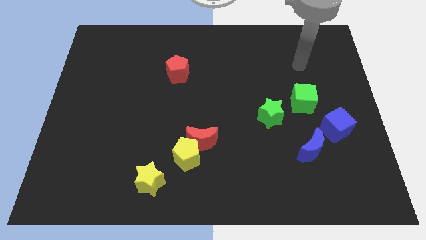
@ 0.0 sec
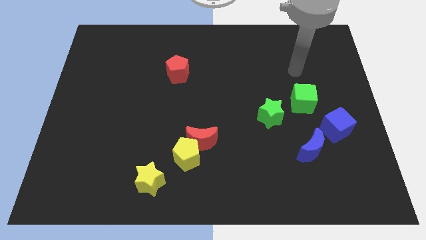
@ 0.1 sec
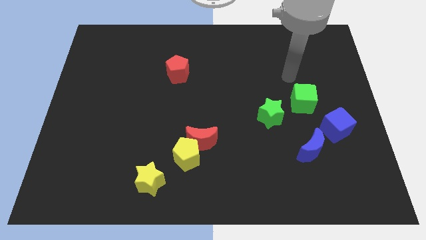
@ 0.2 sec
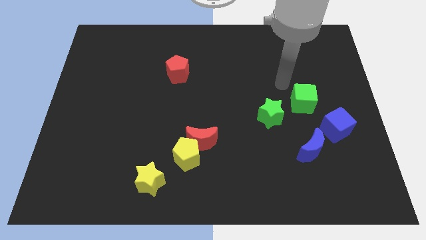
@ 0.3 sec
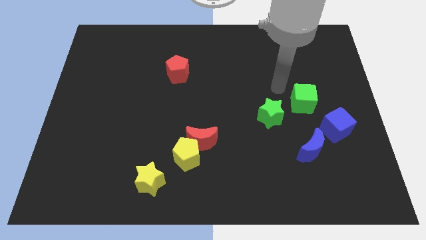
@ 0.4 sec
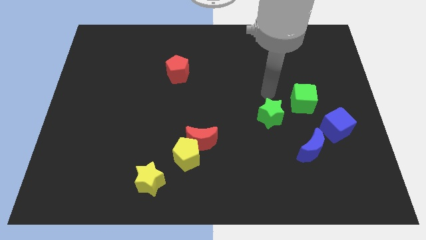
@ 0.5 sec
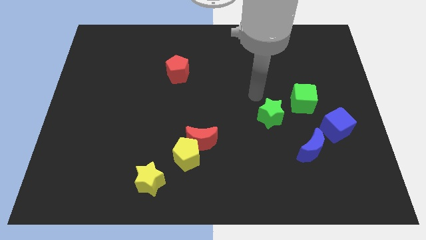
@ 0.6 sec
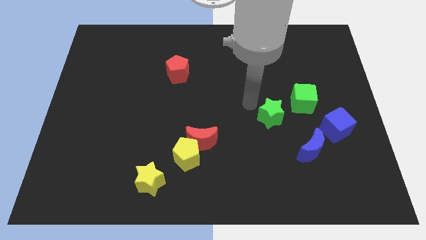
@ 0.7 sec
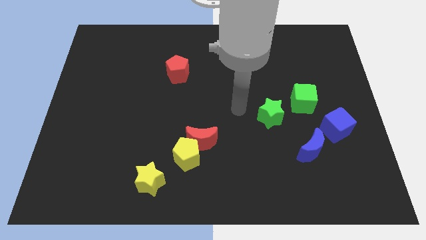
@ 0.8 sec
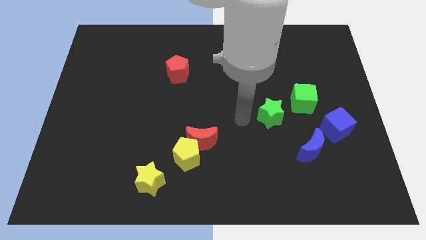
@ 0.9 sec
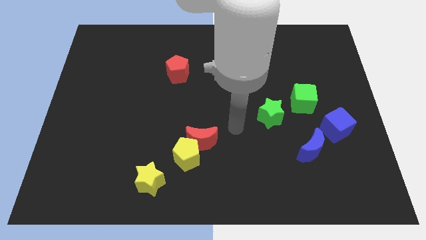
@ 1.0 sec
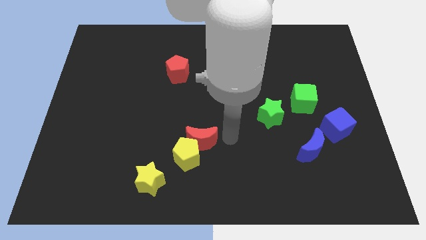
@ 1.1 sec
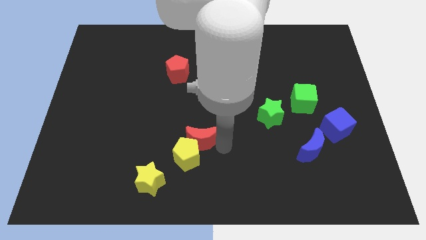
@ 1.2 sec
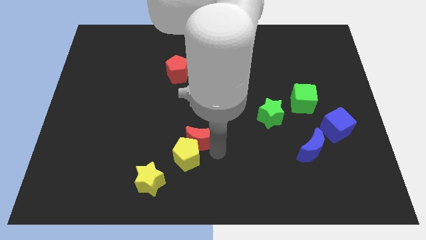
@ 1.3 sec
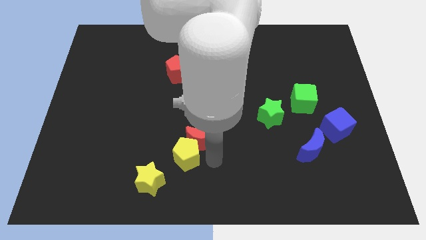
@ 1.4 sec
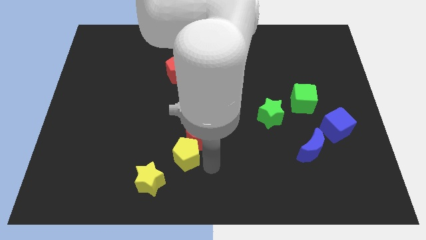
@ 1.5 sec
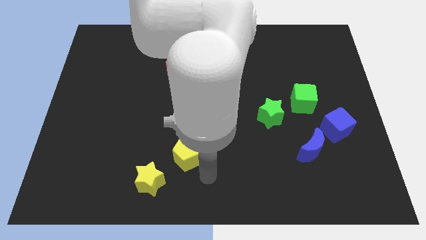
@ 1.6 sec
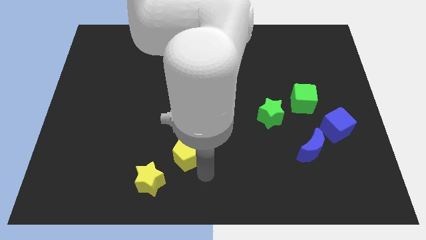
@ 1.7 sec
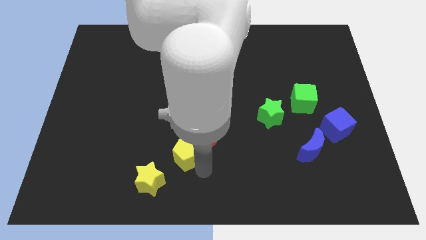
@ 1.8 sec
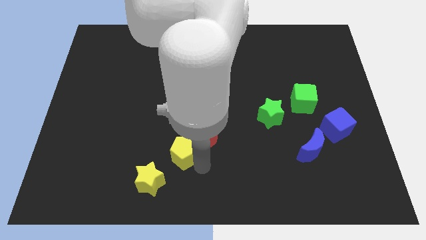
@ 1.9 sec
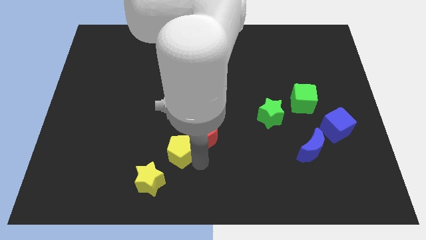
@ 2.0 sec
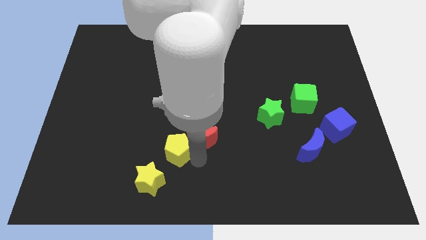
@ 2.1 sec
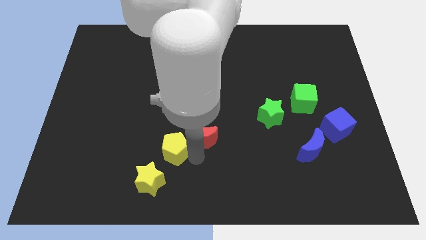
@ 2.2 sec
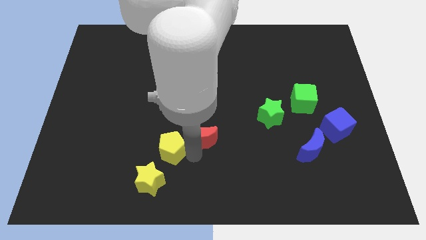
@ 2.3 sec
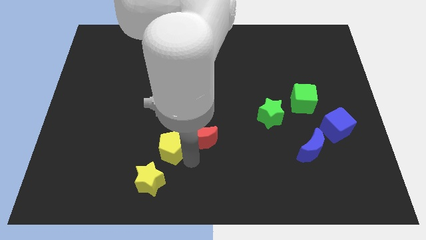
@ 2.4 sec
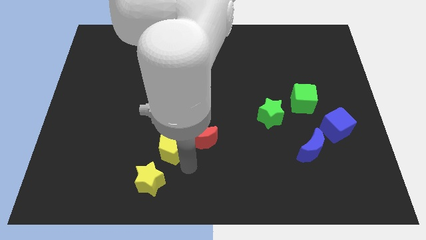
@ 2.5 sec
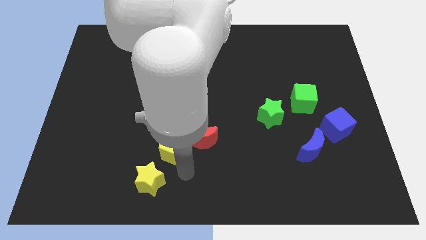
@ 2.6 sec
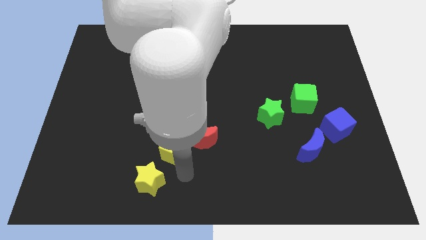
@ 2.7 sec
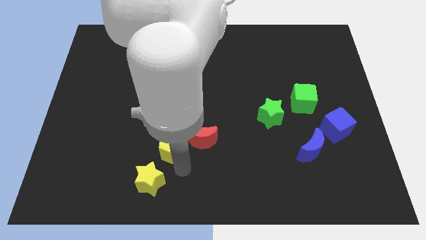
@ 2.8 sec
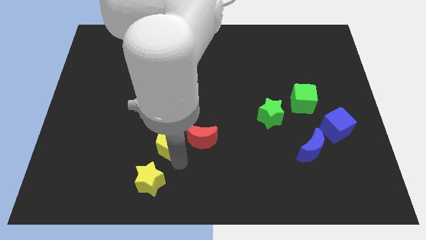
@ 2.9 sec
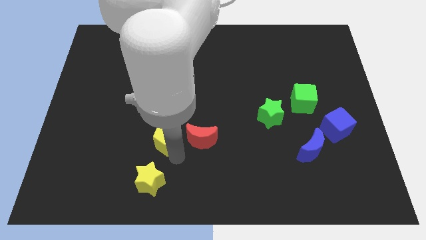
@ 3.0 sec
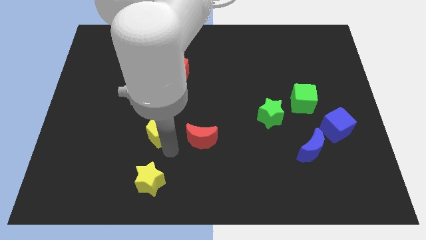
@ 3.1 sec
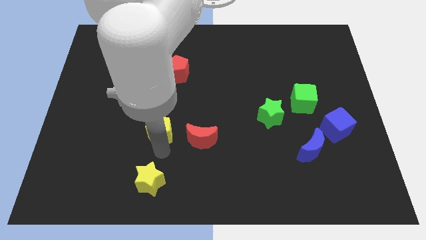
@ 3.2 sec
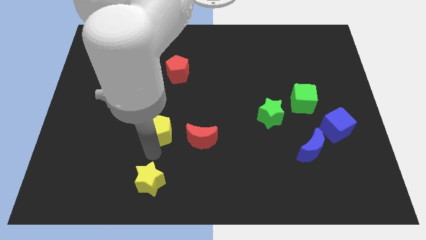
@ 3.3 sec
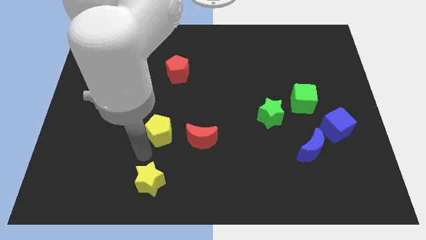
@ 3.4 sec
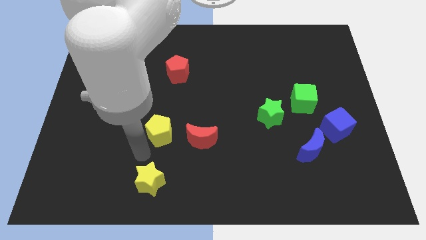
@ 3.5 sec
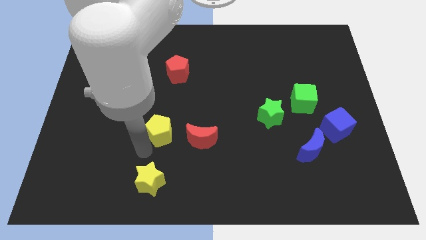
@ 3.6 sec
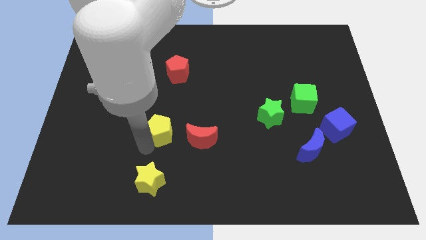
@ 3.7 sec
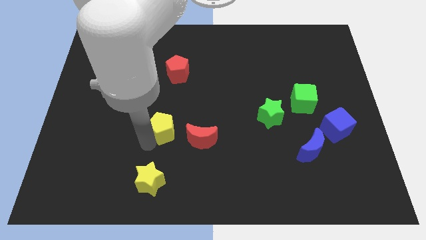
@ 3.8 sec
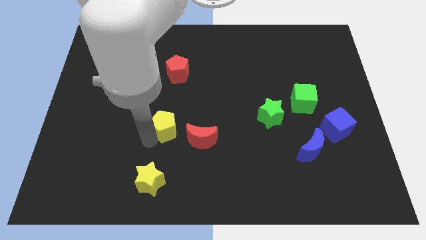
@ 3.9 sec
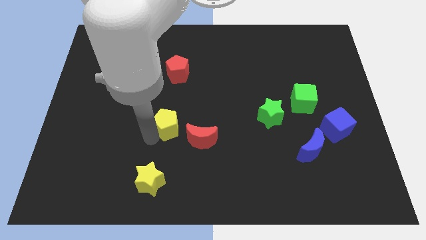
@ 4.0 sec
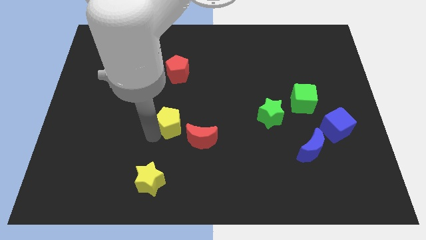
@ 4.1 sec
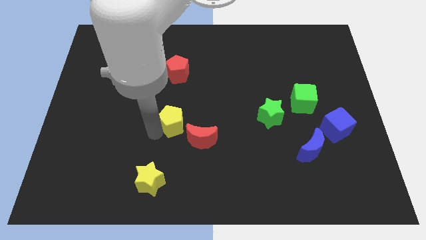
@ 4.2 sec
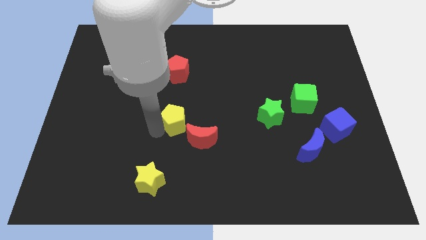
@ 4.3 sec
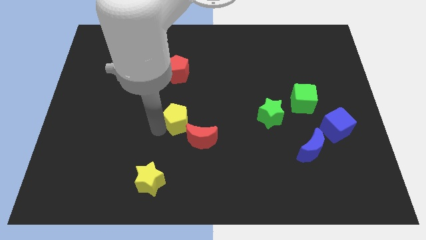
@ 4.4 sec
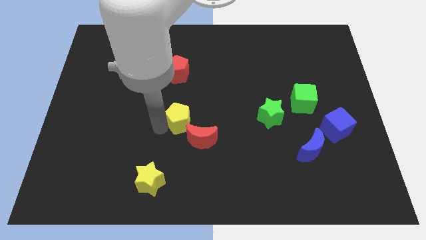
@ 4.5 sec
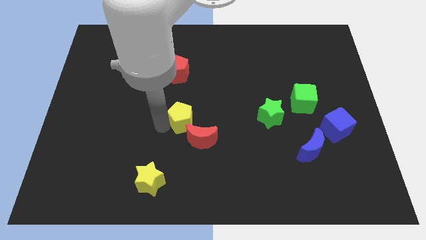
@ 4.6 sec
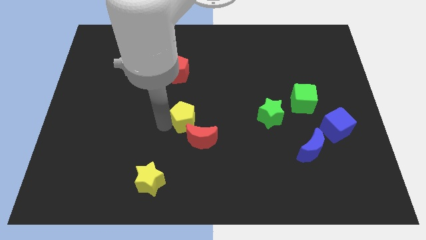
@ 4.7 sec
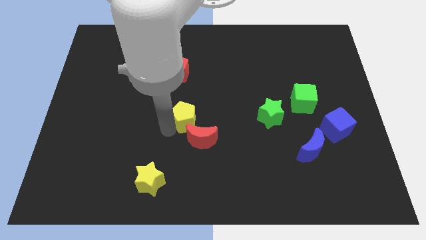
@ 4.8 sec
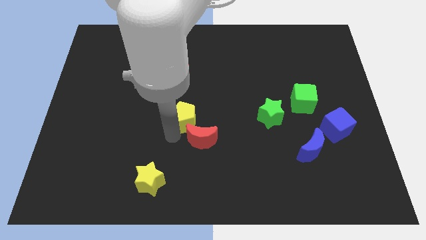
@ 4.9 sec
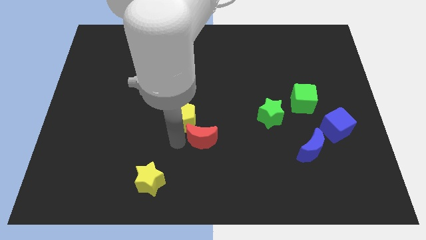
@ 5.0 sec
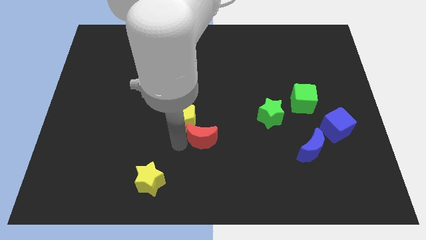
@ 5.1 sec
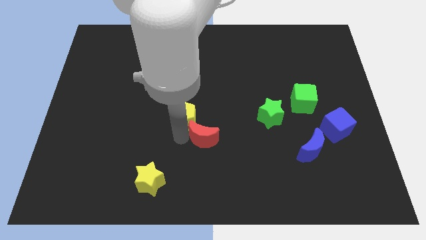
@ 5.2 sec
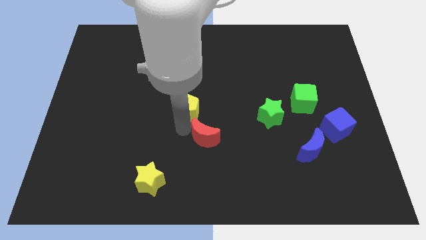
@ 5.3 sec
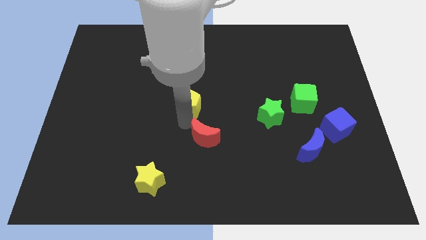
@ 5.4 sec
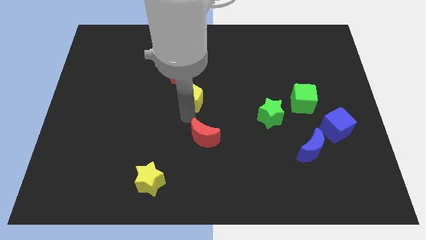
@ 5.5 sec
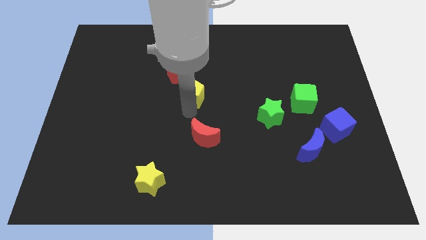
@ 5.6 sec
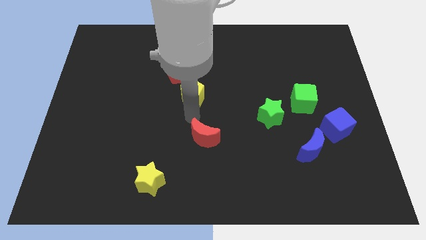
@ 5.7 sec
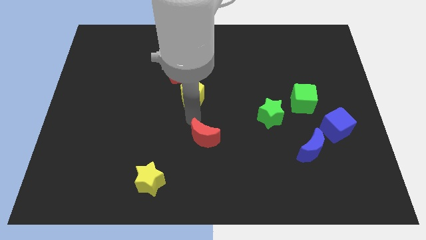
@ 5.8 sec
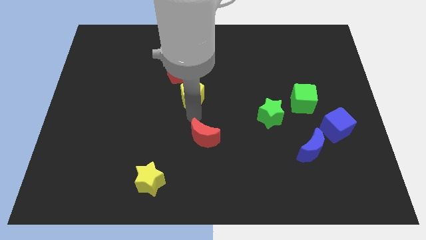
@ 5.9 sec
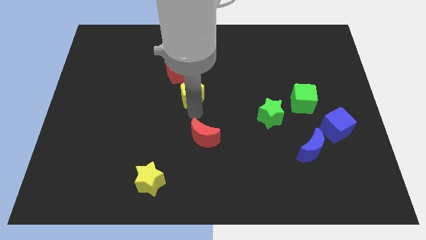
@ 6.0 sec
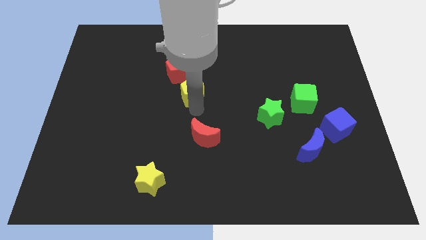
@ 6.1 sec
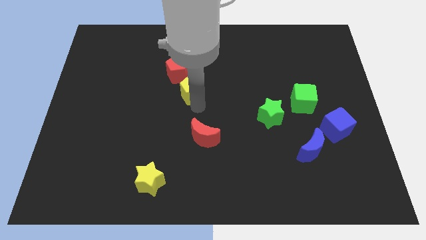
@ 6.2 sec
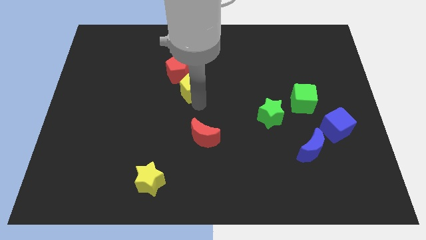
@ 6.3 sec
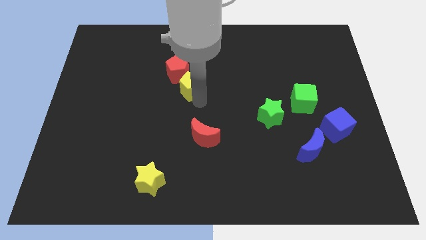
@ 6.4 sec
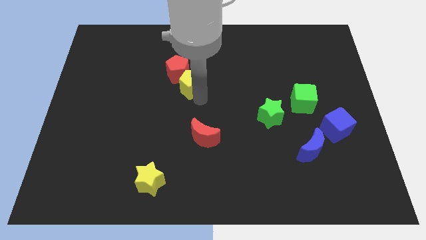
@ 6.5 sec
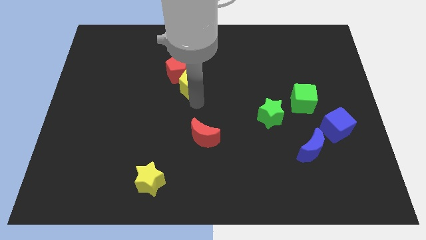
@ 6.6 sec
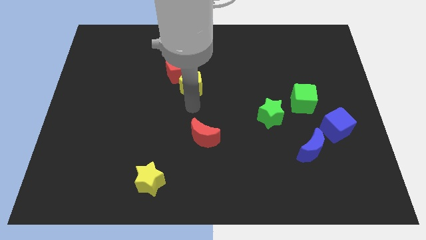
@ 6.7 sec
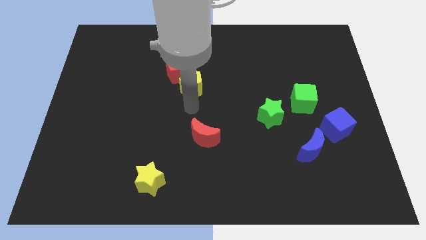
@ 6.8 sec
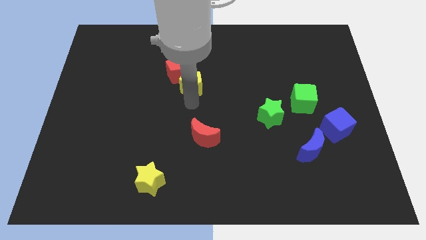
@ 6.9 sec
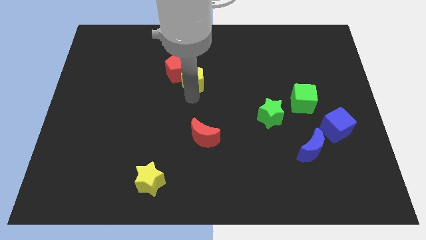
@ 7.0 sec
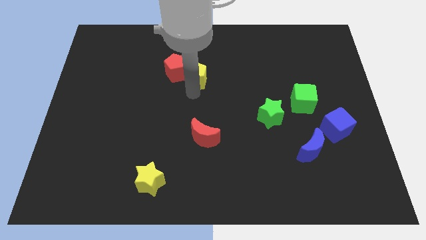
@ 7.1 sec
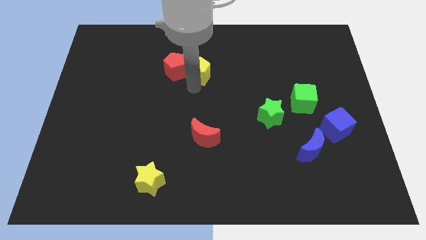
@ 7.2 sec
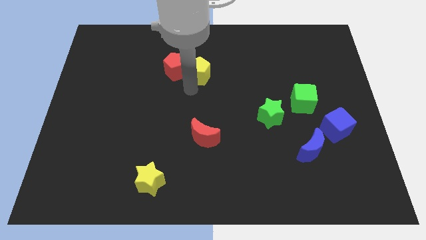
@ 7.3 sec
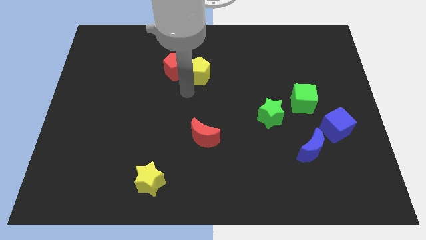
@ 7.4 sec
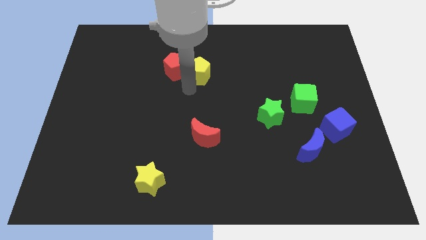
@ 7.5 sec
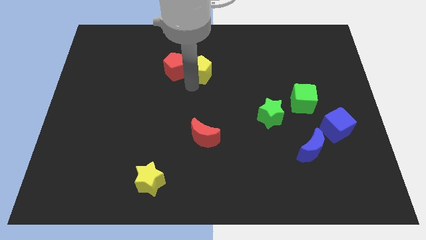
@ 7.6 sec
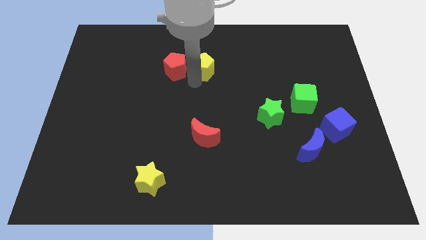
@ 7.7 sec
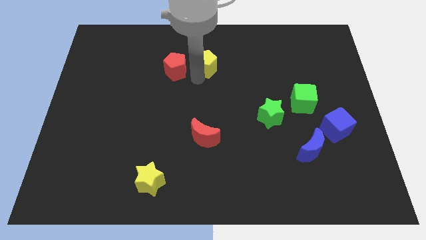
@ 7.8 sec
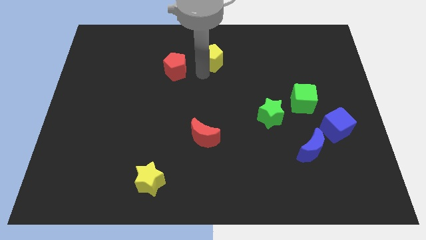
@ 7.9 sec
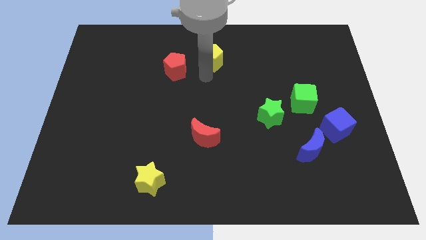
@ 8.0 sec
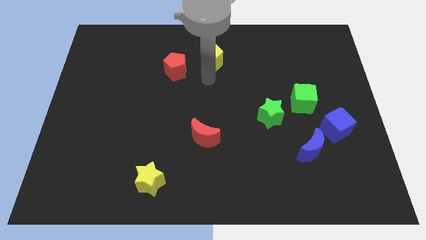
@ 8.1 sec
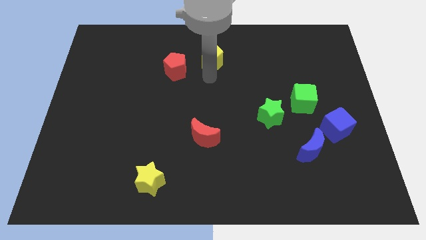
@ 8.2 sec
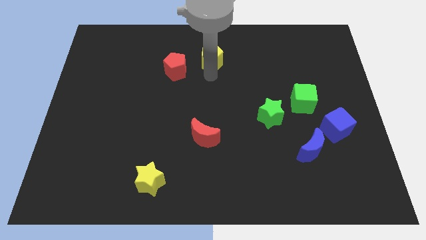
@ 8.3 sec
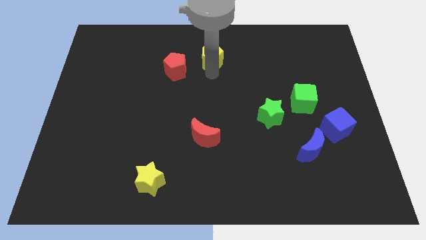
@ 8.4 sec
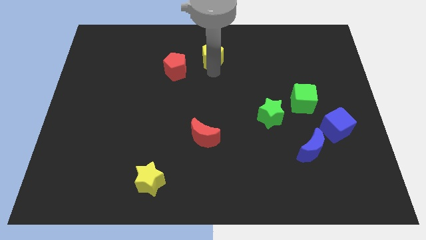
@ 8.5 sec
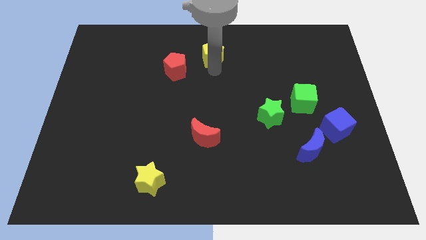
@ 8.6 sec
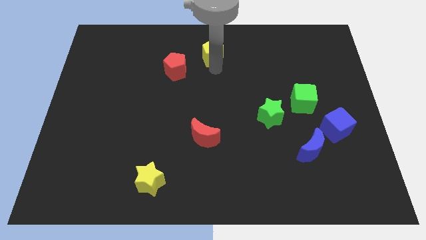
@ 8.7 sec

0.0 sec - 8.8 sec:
slide the yellow pentagon to the towards your base
